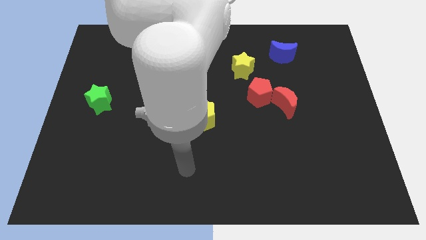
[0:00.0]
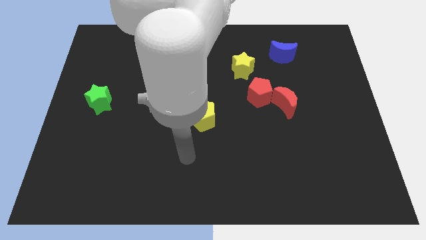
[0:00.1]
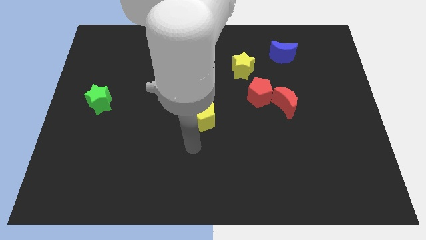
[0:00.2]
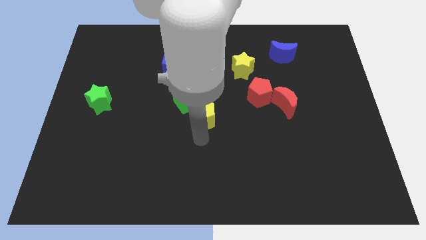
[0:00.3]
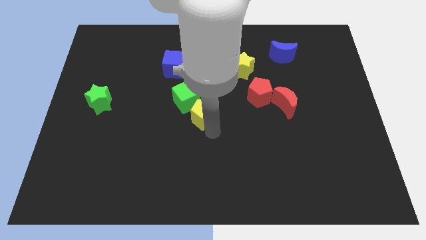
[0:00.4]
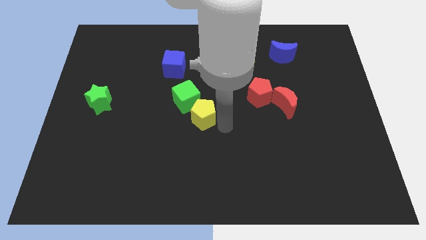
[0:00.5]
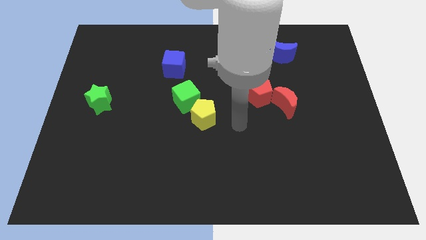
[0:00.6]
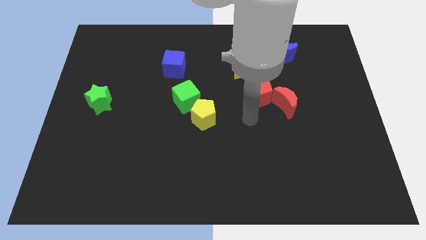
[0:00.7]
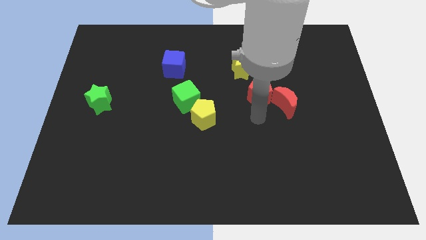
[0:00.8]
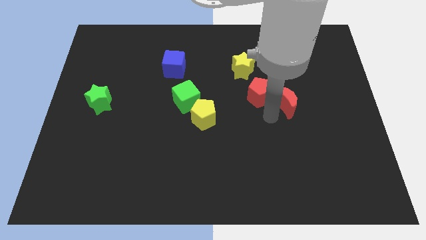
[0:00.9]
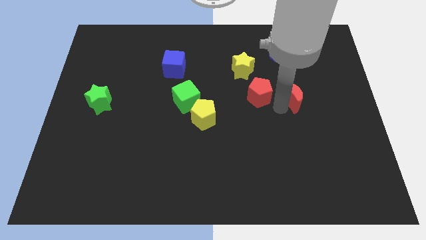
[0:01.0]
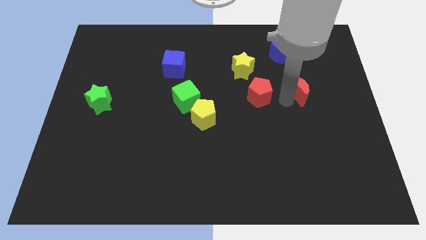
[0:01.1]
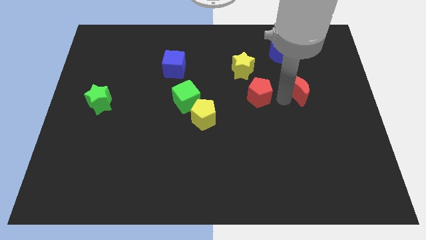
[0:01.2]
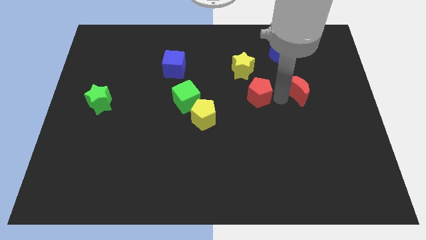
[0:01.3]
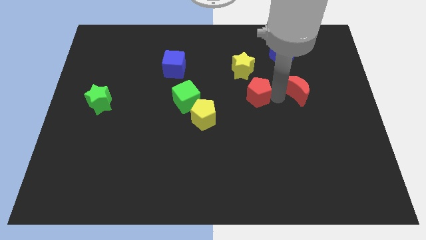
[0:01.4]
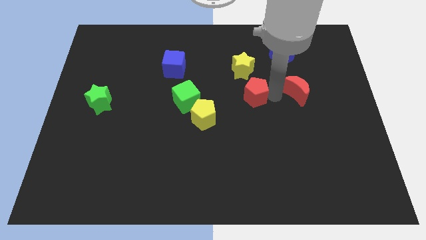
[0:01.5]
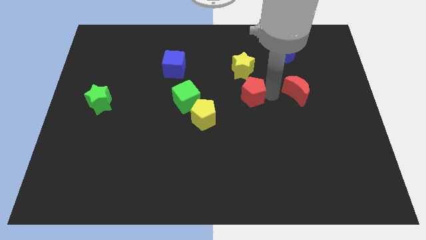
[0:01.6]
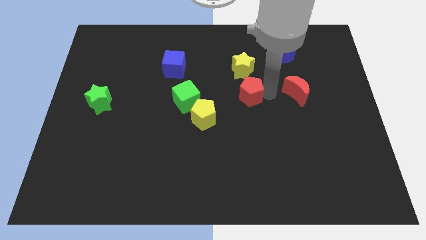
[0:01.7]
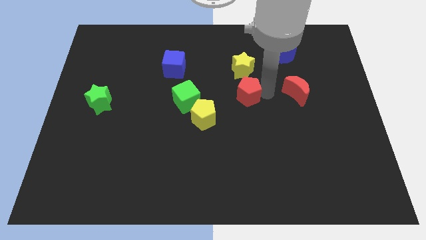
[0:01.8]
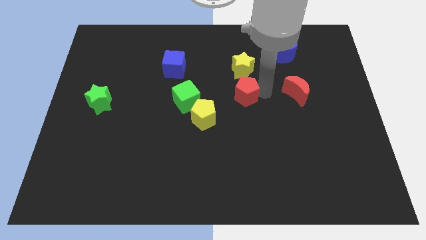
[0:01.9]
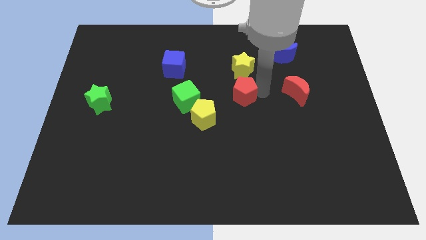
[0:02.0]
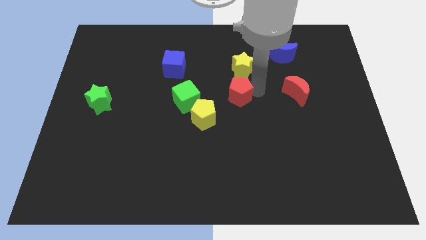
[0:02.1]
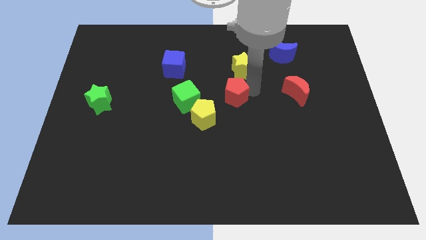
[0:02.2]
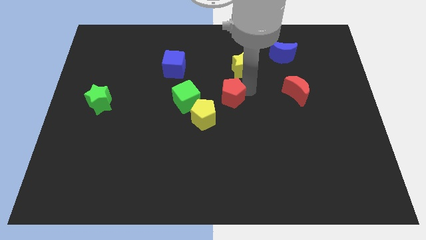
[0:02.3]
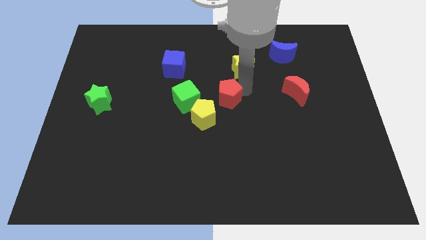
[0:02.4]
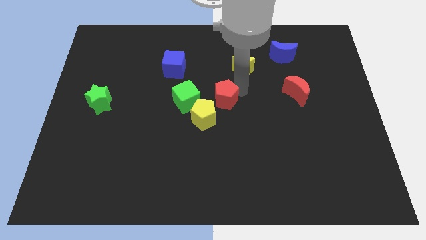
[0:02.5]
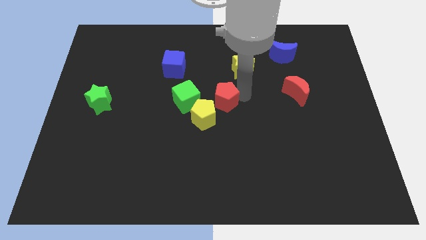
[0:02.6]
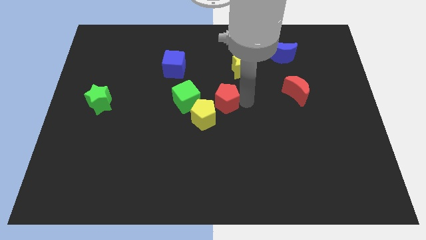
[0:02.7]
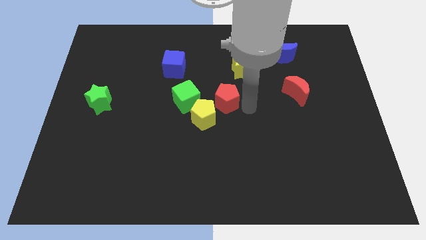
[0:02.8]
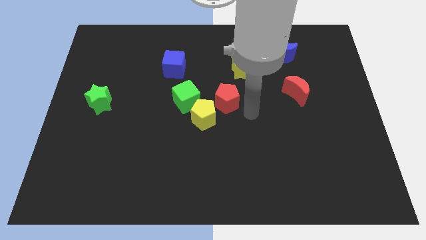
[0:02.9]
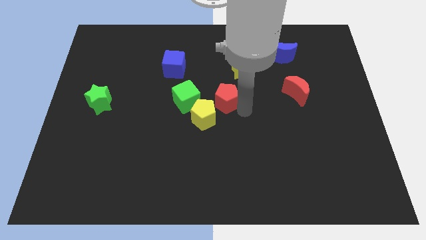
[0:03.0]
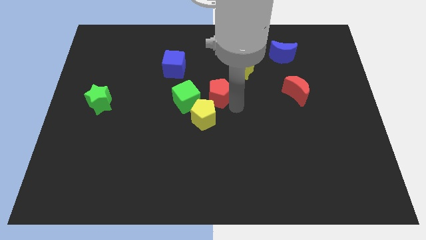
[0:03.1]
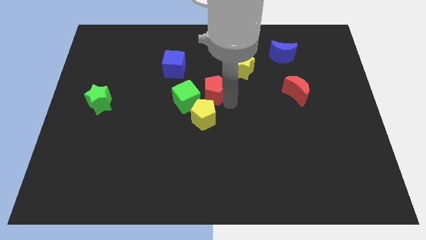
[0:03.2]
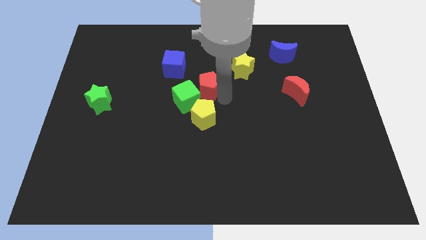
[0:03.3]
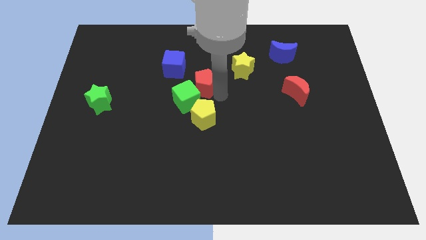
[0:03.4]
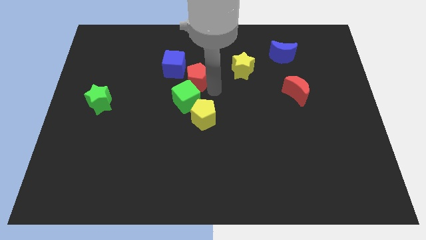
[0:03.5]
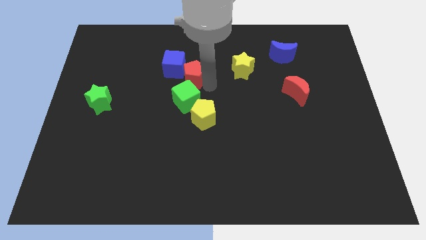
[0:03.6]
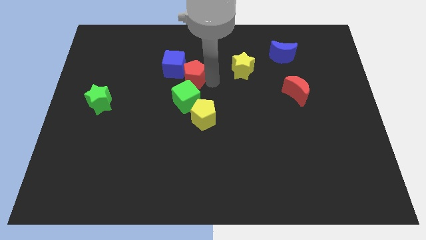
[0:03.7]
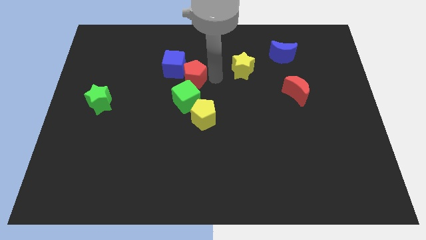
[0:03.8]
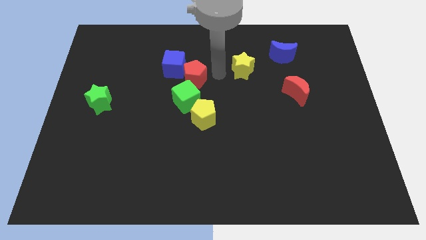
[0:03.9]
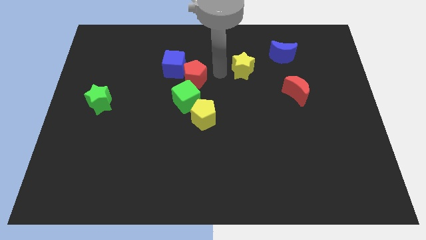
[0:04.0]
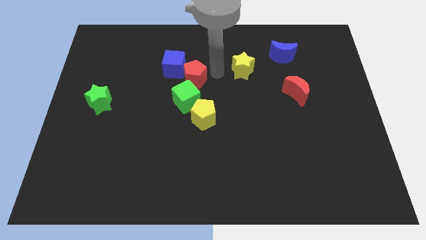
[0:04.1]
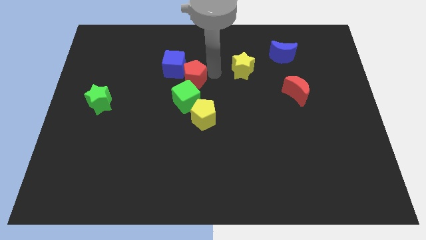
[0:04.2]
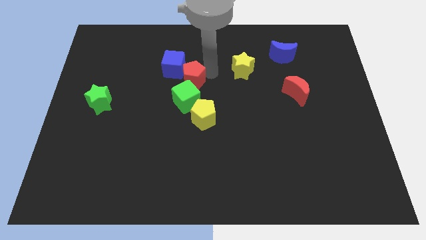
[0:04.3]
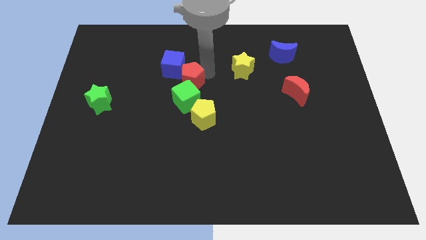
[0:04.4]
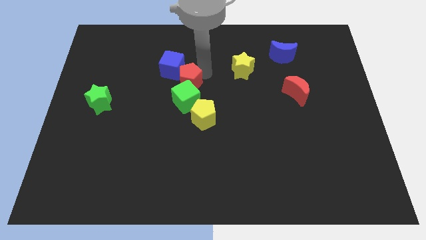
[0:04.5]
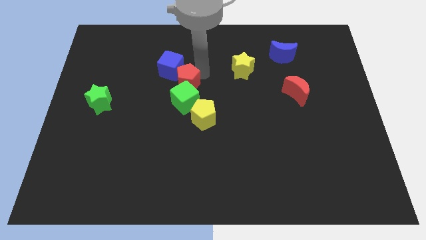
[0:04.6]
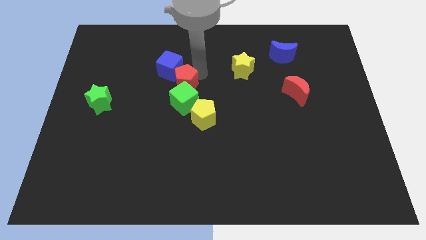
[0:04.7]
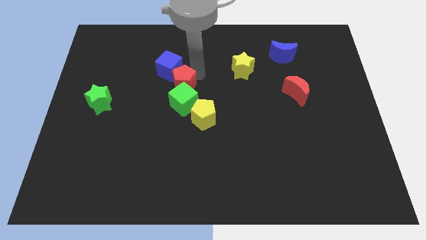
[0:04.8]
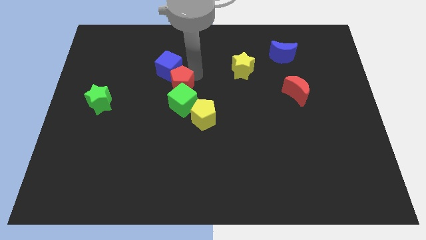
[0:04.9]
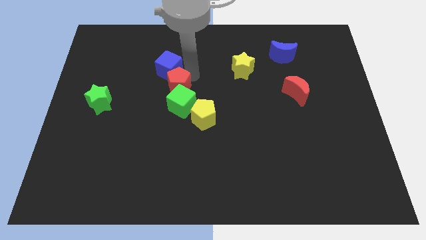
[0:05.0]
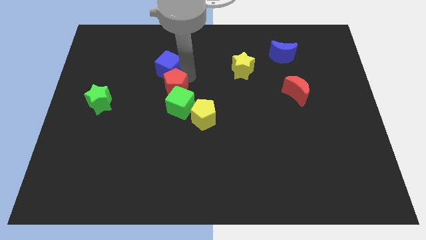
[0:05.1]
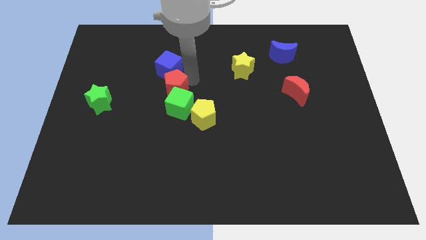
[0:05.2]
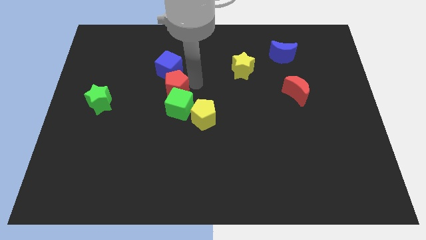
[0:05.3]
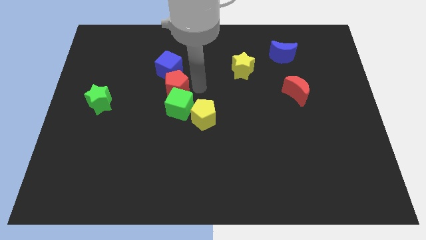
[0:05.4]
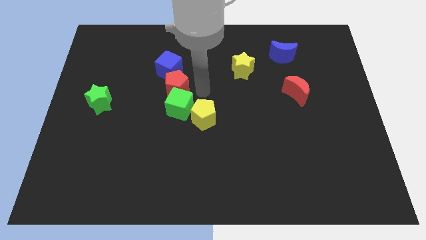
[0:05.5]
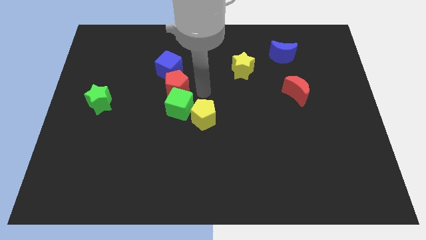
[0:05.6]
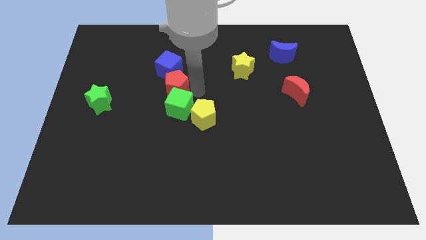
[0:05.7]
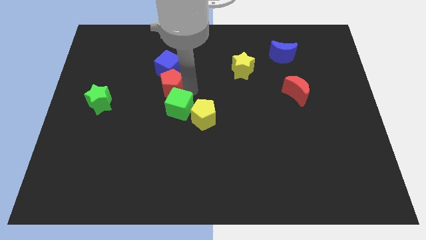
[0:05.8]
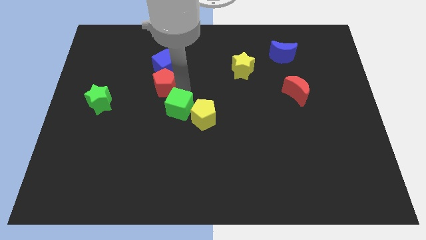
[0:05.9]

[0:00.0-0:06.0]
slide the red pentagon to the bottom left side of the blue cube

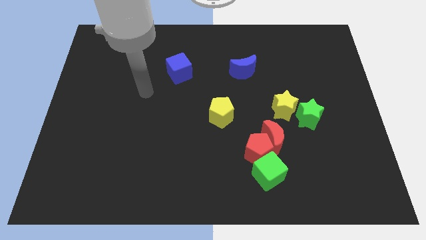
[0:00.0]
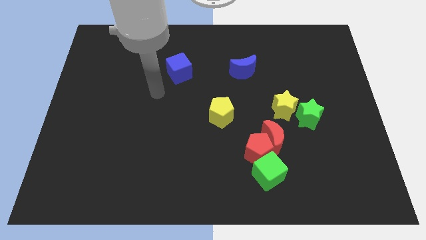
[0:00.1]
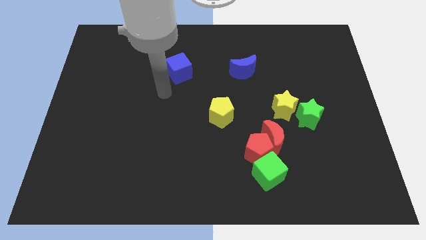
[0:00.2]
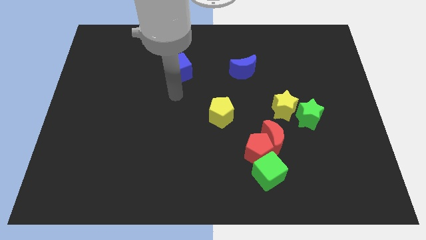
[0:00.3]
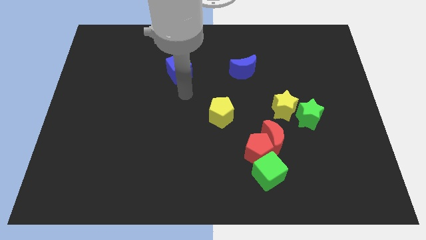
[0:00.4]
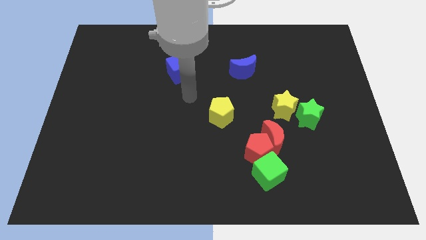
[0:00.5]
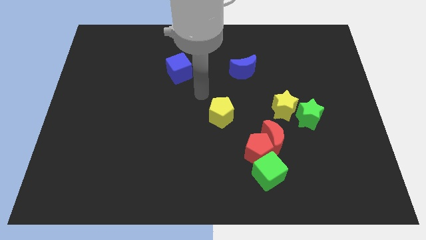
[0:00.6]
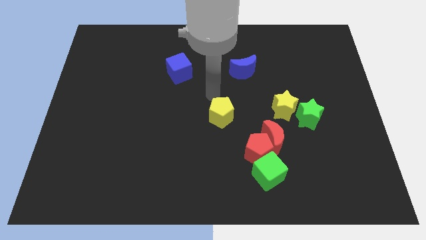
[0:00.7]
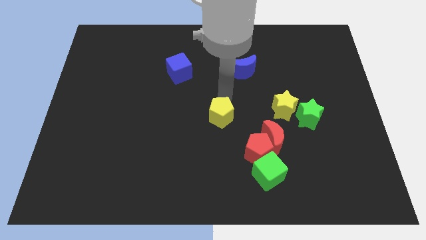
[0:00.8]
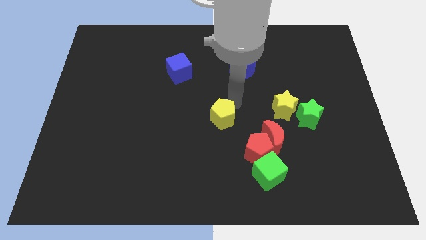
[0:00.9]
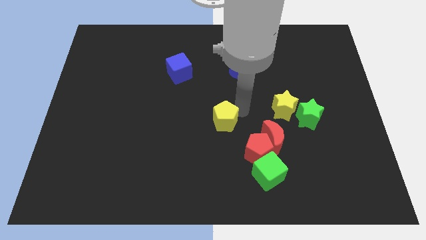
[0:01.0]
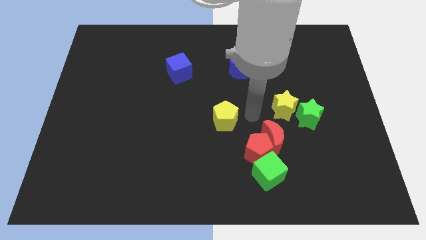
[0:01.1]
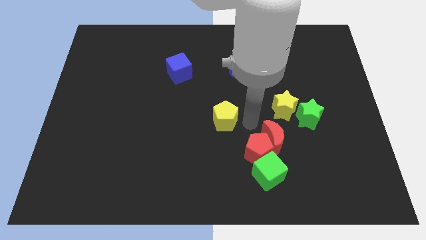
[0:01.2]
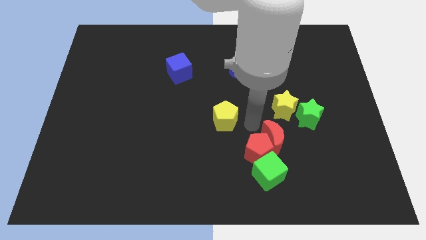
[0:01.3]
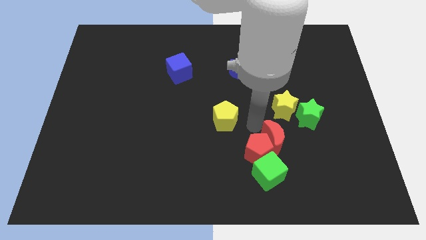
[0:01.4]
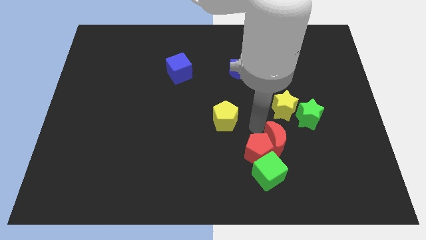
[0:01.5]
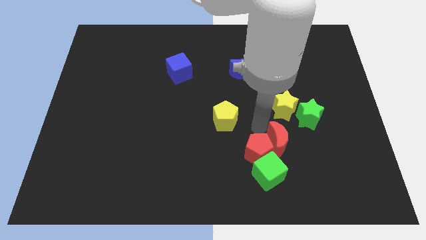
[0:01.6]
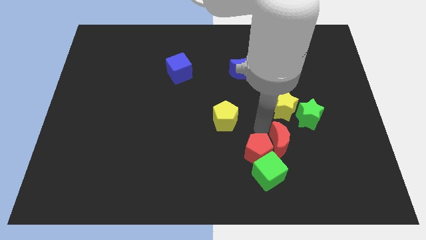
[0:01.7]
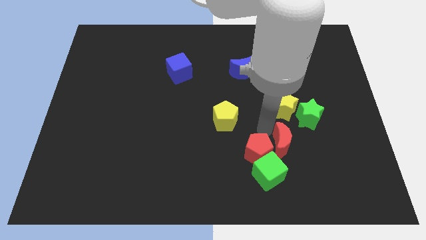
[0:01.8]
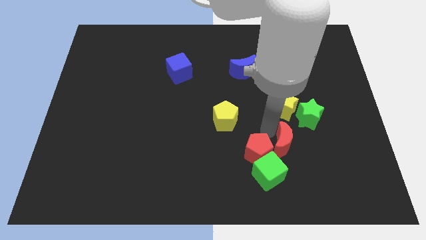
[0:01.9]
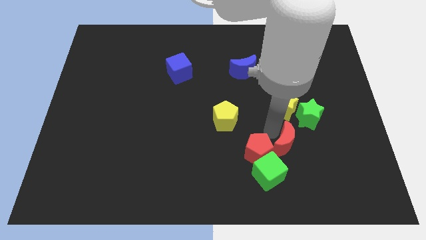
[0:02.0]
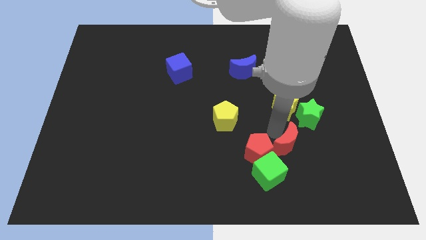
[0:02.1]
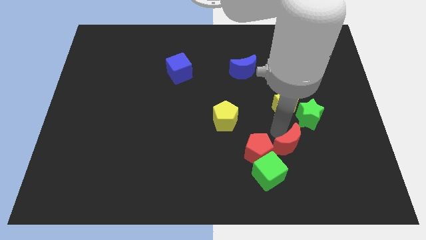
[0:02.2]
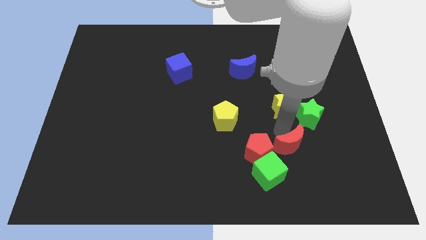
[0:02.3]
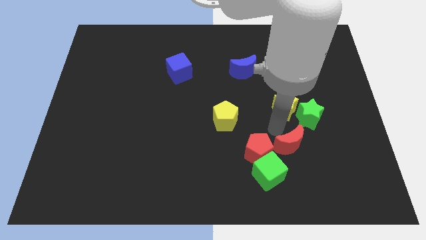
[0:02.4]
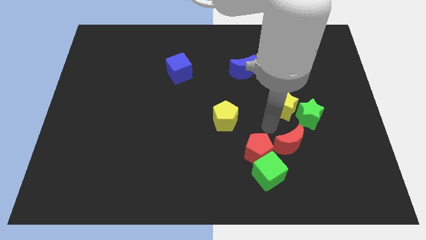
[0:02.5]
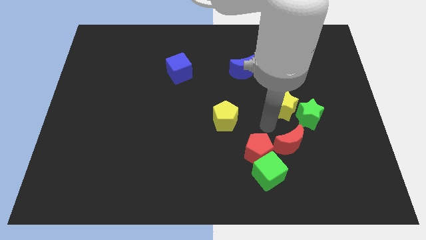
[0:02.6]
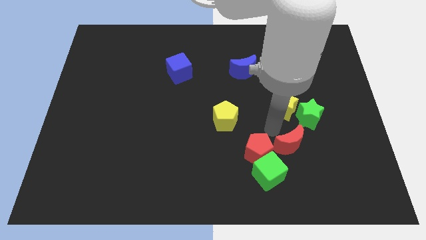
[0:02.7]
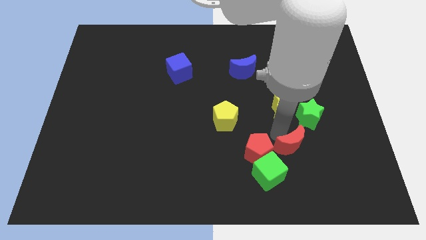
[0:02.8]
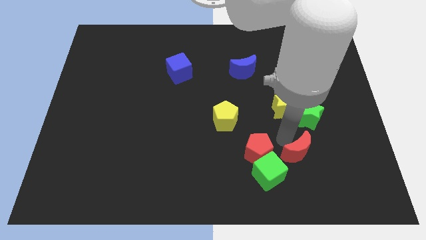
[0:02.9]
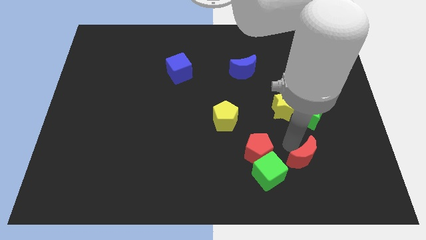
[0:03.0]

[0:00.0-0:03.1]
push the red moon to the right side of the green cube
